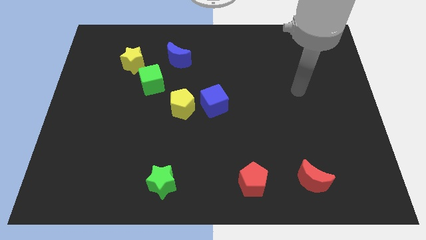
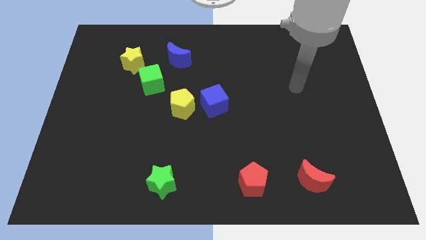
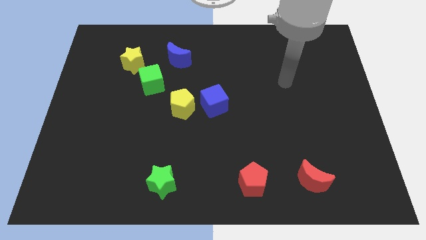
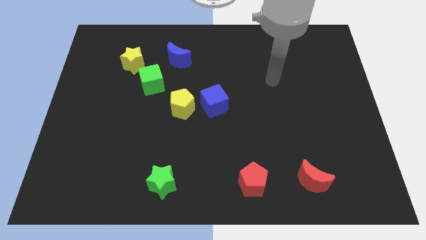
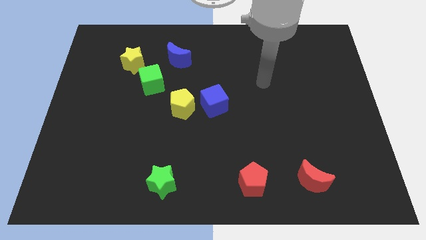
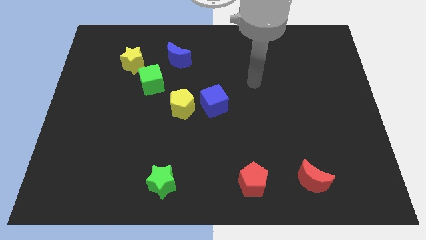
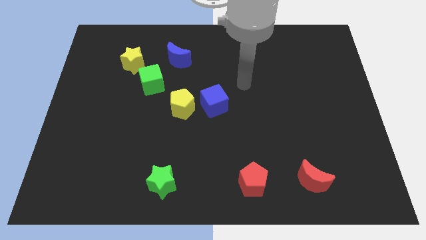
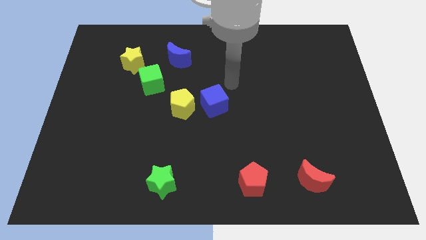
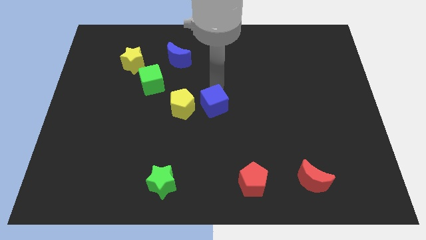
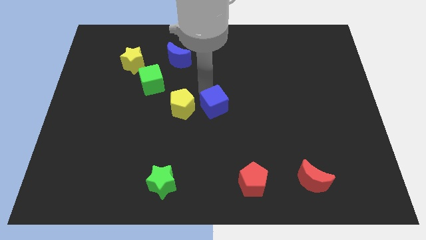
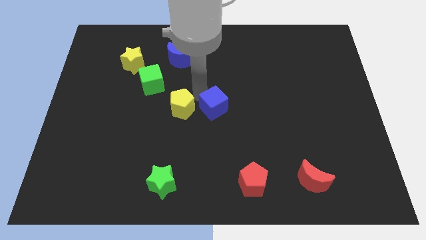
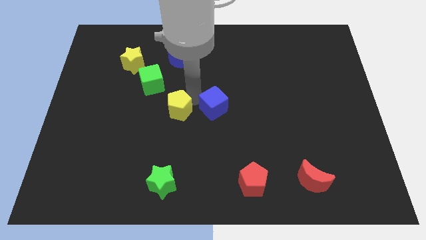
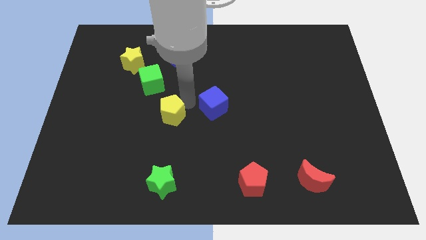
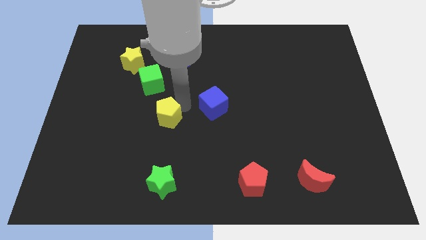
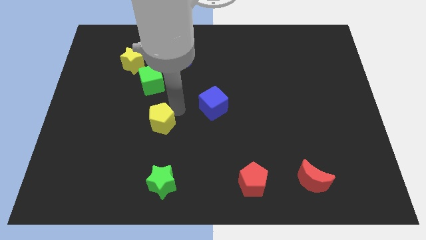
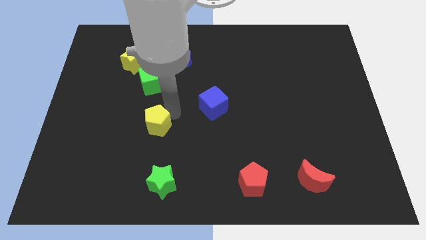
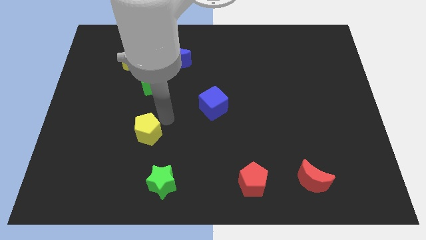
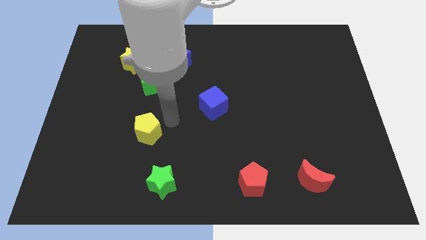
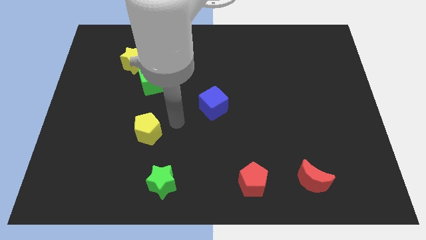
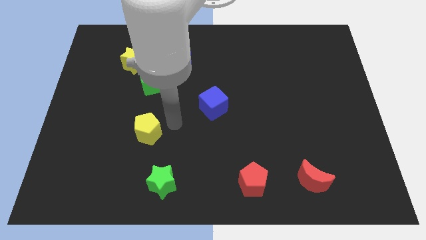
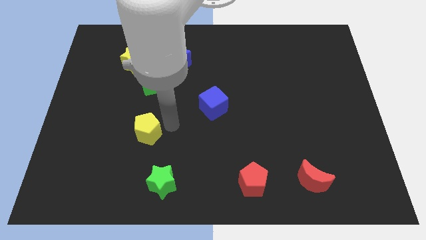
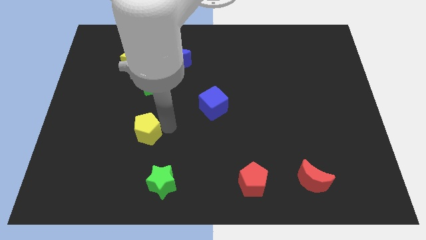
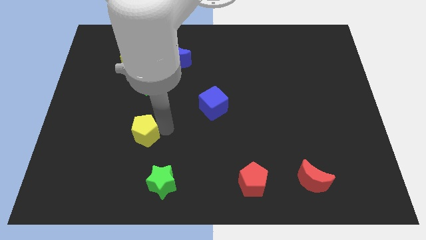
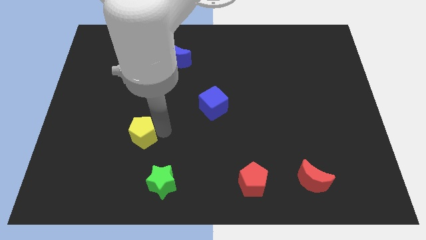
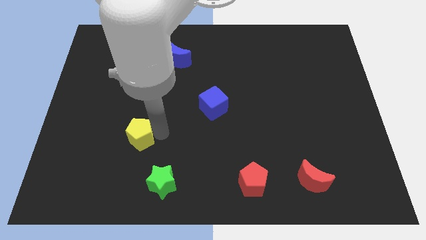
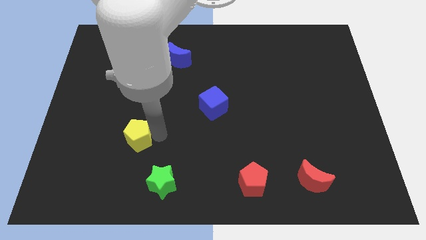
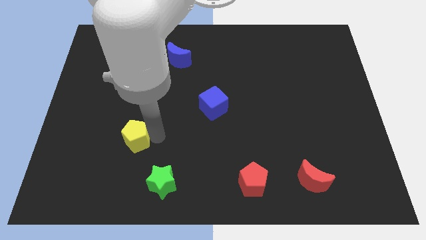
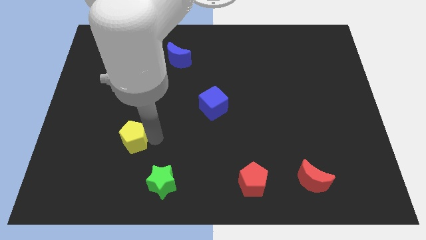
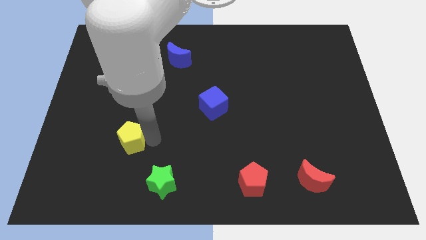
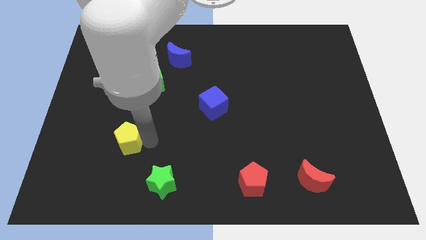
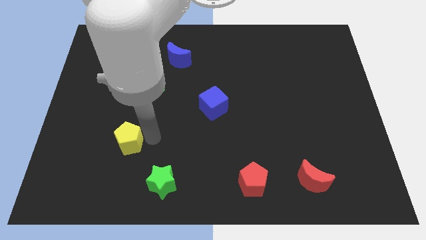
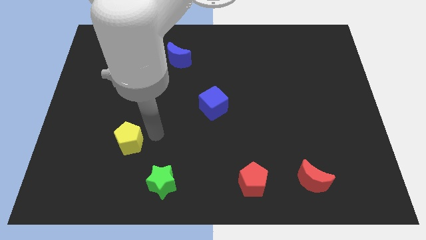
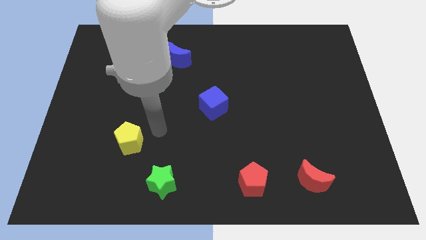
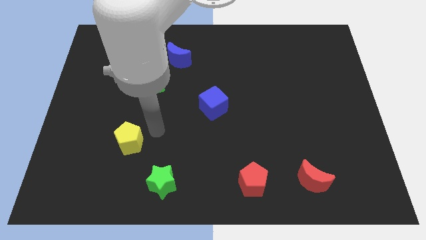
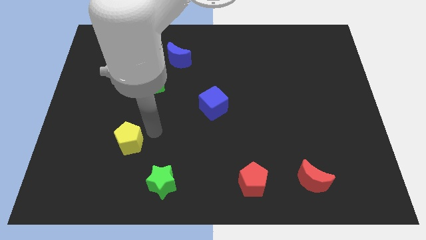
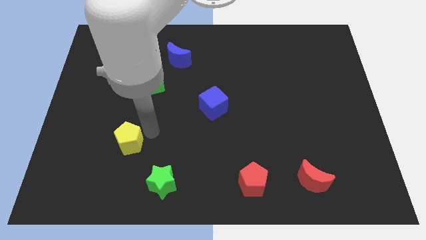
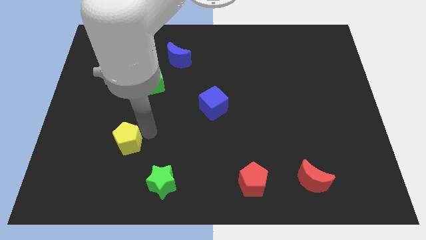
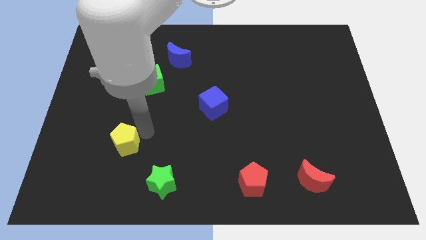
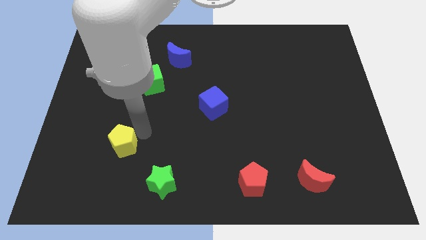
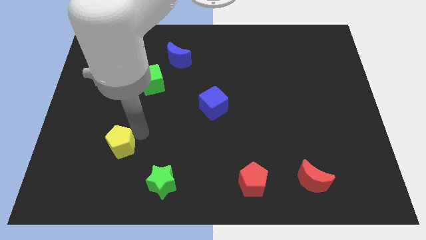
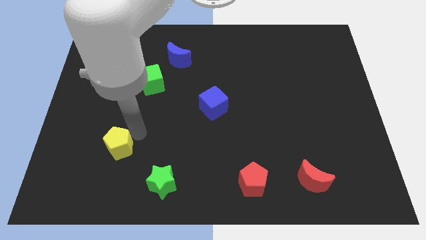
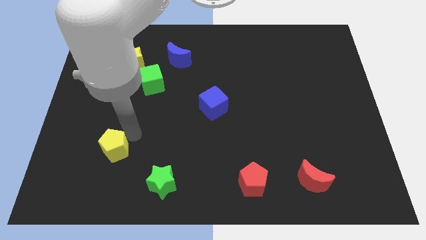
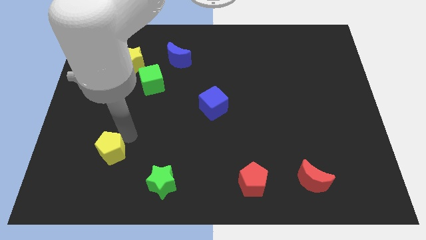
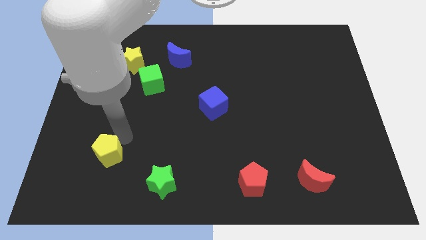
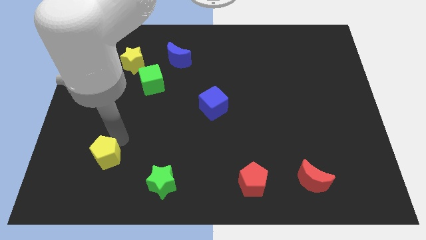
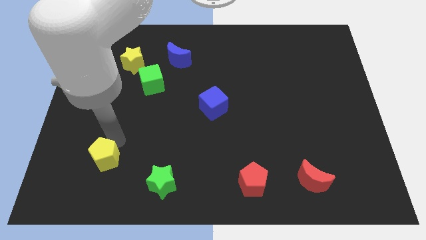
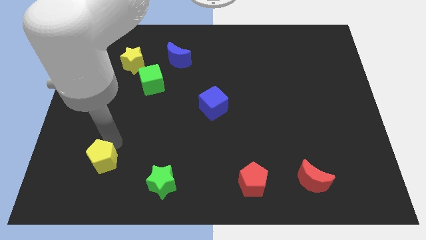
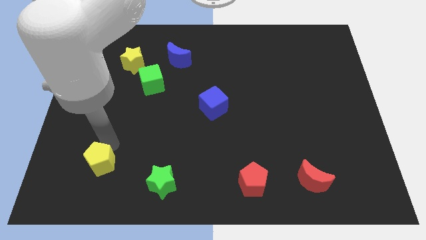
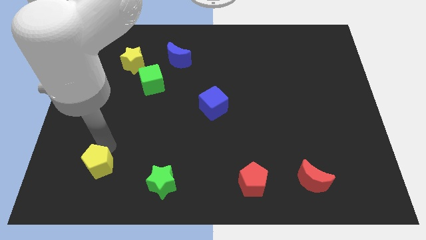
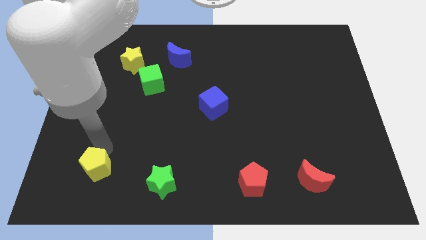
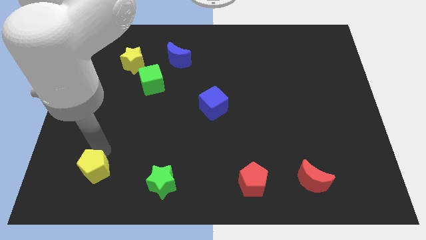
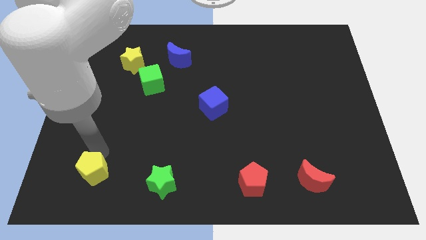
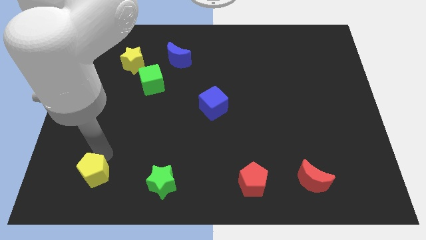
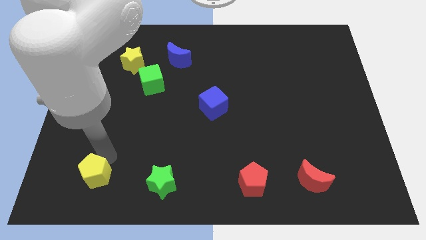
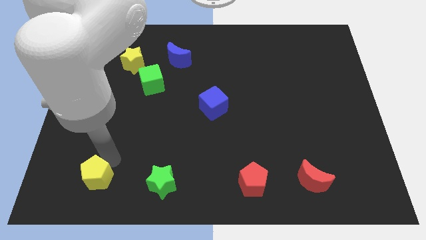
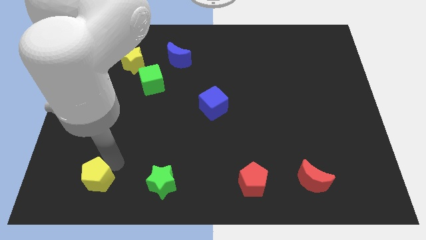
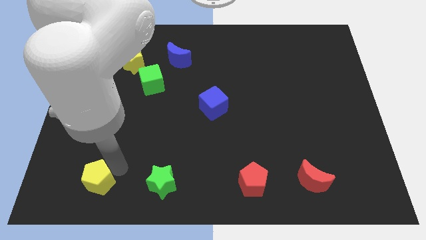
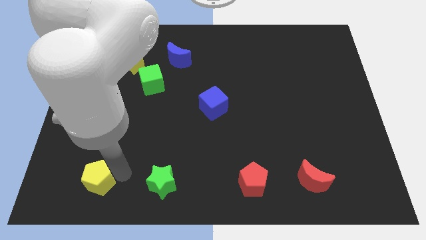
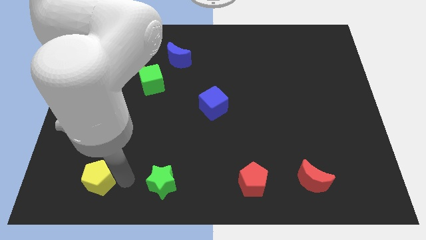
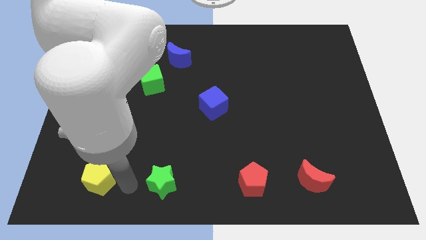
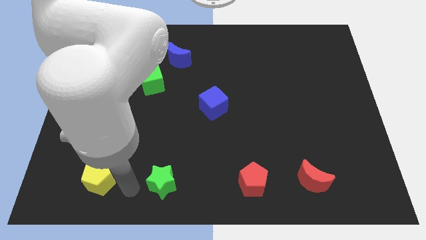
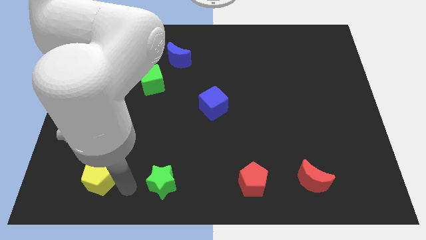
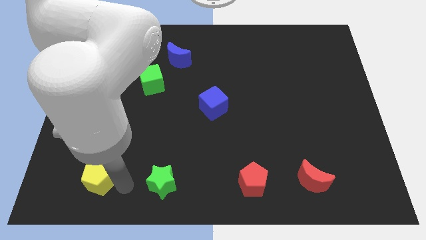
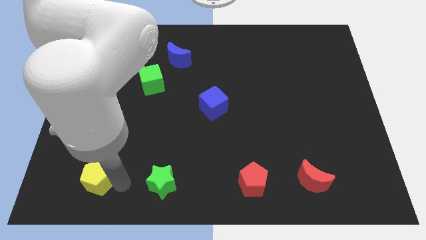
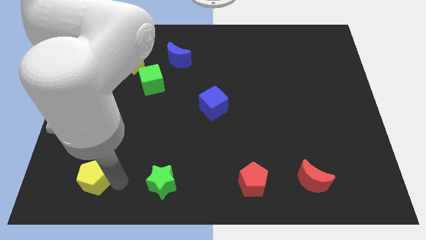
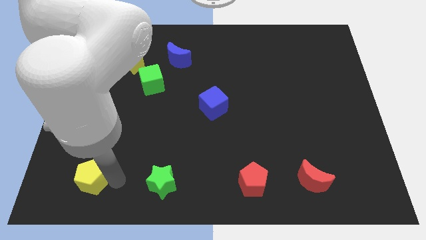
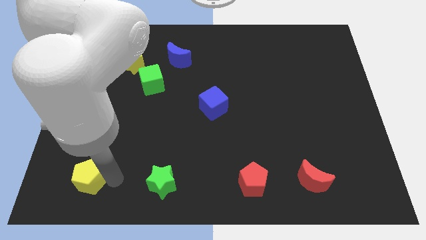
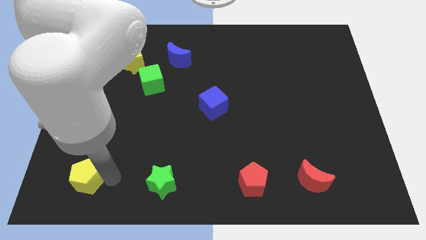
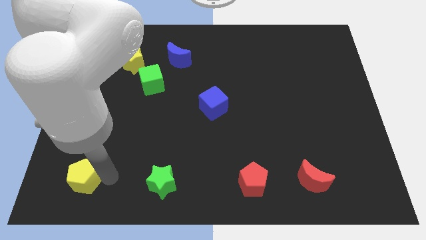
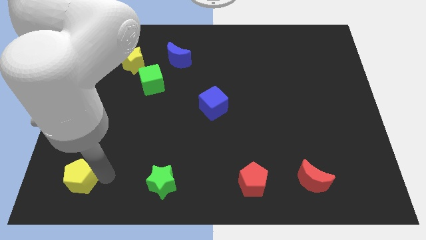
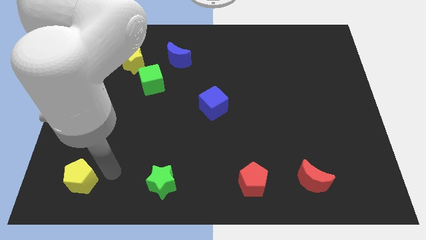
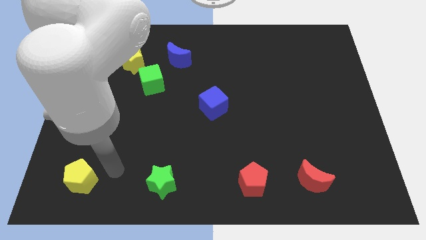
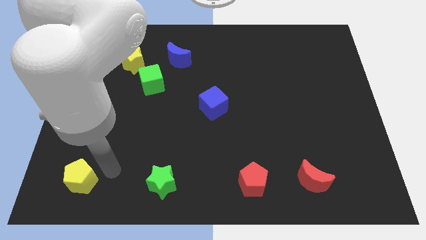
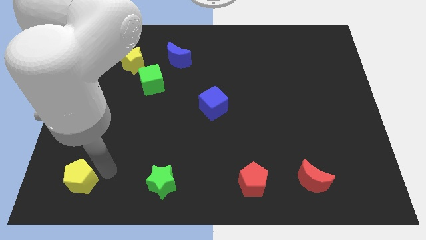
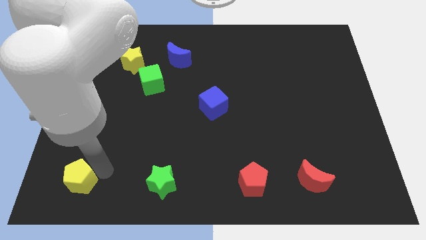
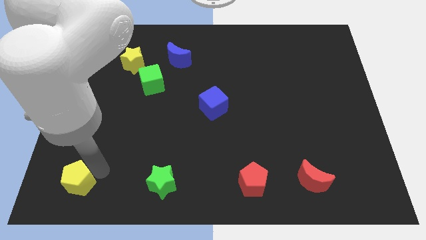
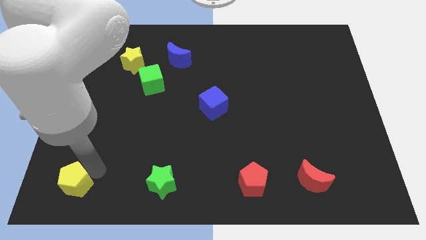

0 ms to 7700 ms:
slide the yellow pentagon to the bottom left corner
